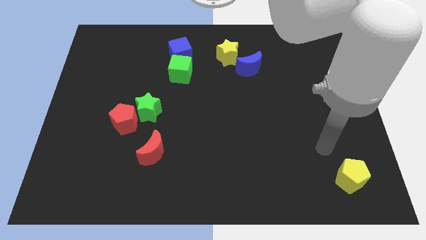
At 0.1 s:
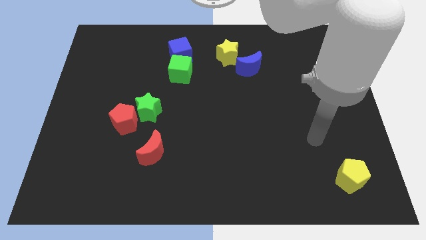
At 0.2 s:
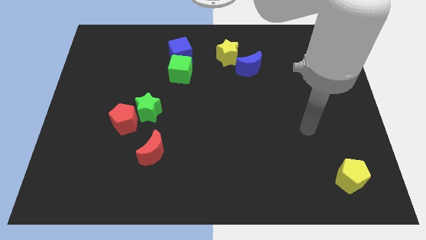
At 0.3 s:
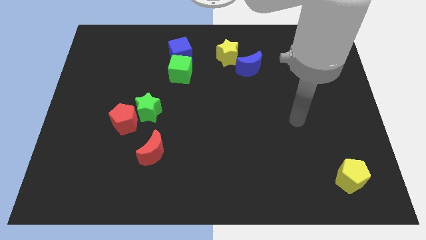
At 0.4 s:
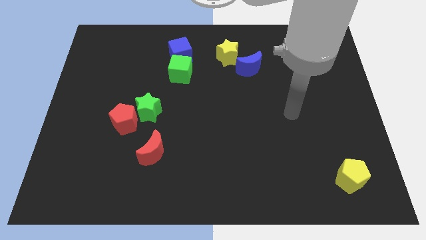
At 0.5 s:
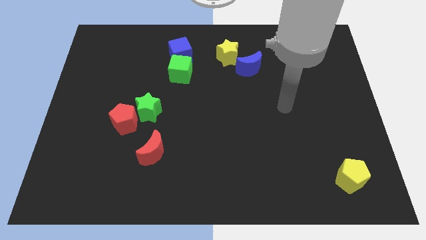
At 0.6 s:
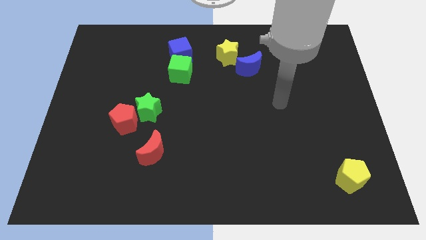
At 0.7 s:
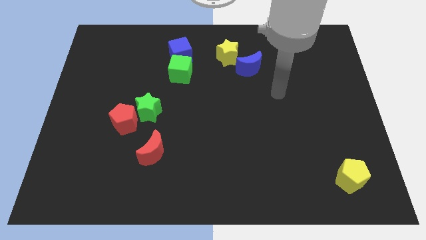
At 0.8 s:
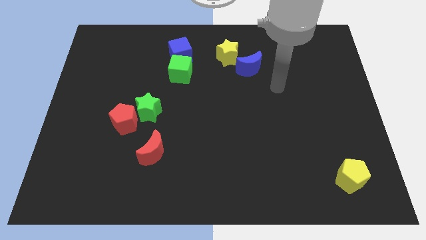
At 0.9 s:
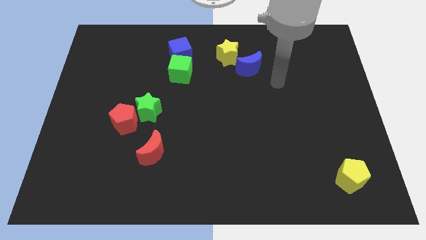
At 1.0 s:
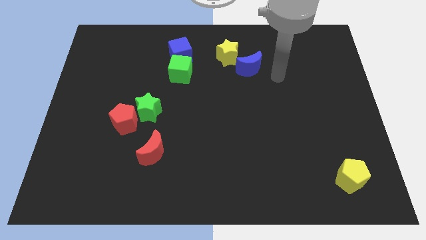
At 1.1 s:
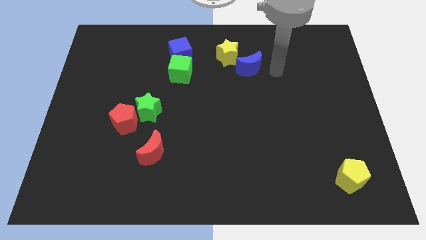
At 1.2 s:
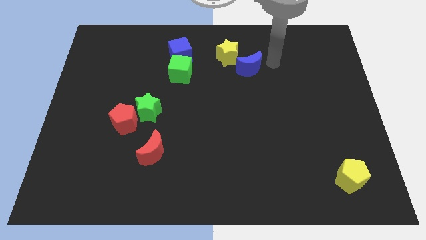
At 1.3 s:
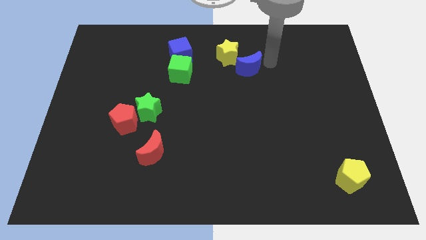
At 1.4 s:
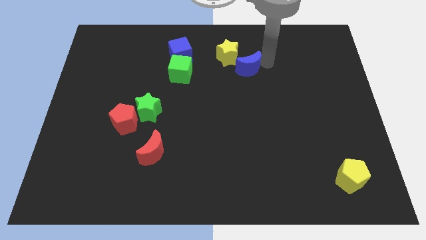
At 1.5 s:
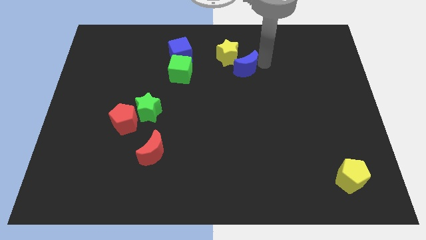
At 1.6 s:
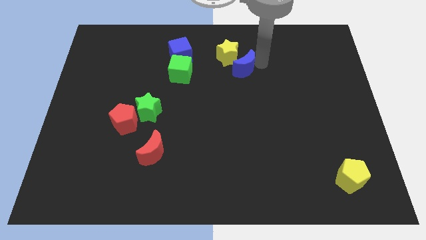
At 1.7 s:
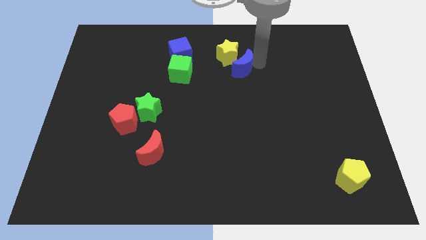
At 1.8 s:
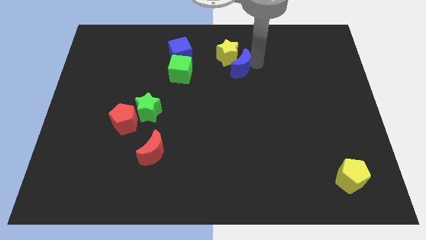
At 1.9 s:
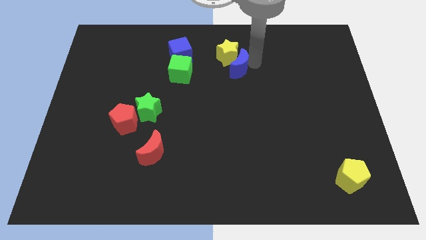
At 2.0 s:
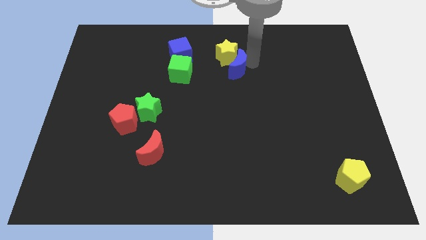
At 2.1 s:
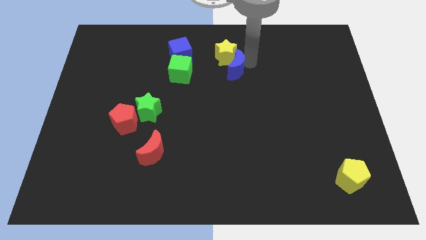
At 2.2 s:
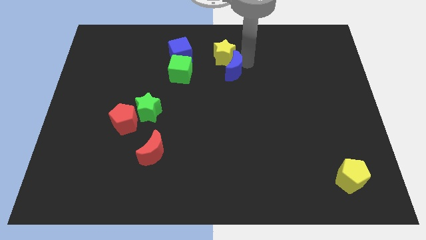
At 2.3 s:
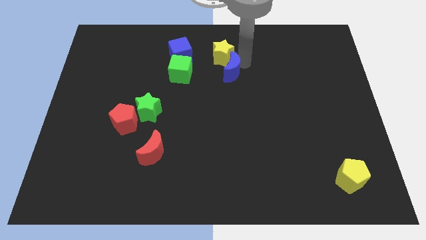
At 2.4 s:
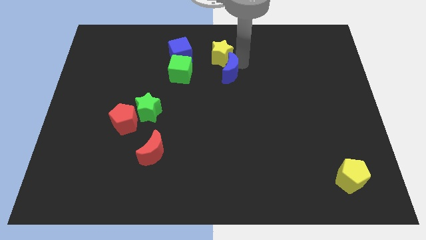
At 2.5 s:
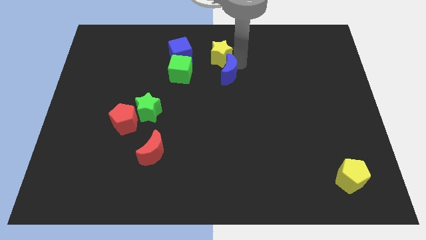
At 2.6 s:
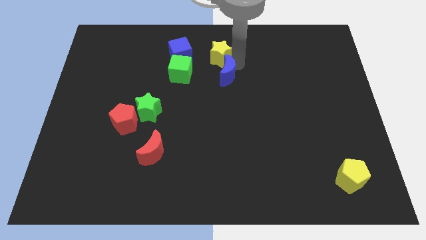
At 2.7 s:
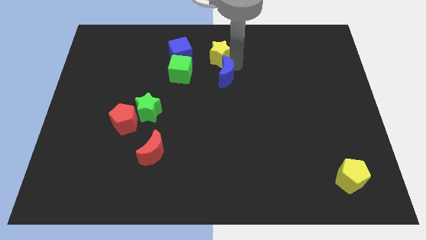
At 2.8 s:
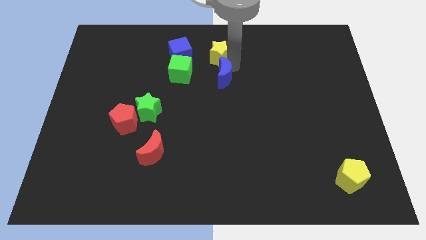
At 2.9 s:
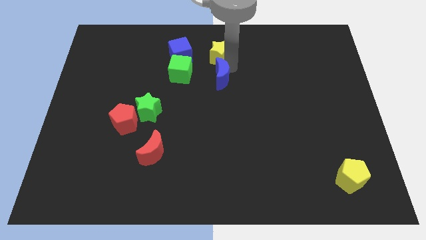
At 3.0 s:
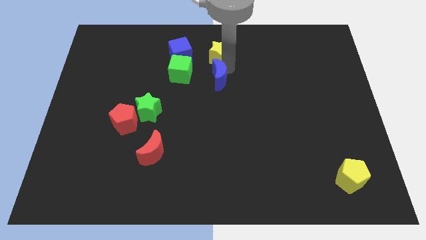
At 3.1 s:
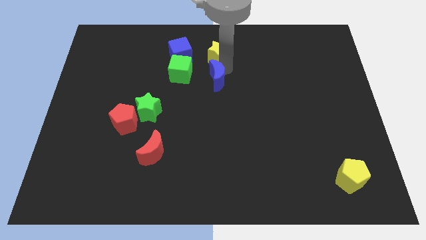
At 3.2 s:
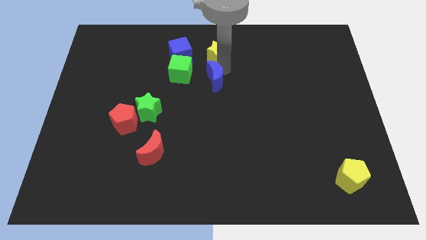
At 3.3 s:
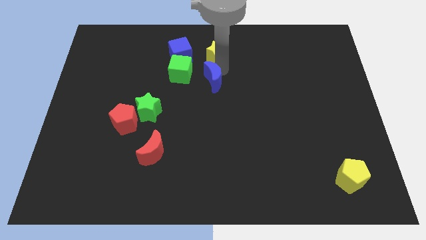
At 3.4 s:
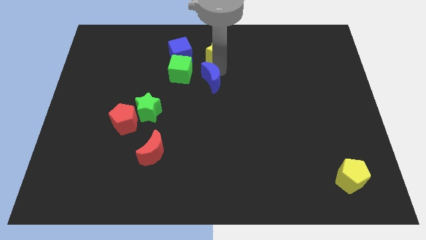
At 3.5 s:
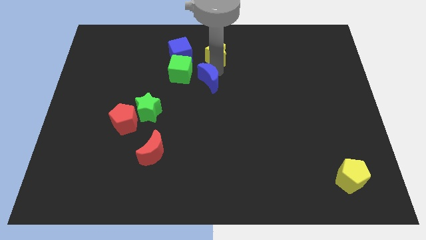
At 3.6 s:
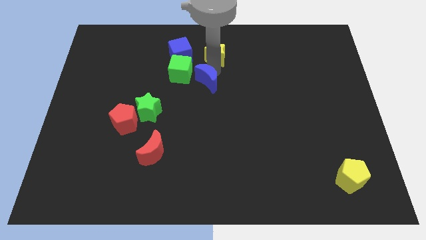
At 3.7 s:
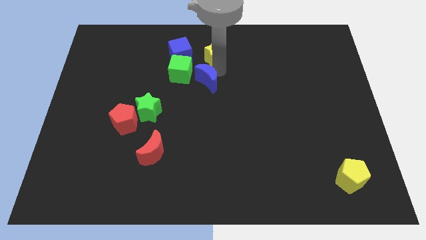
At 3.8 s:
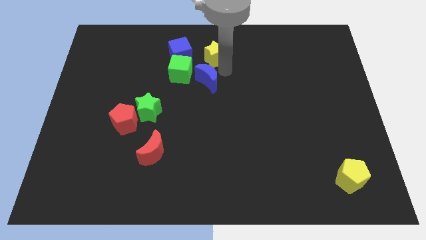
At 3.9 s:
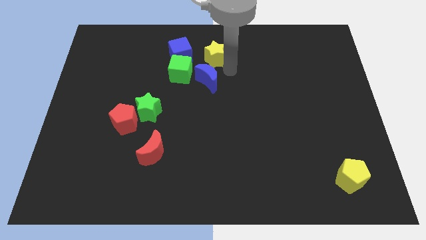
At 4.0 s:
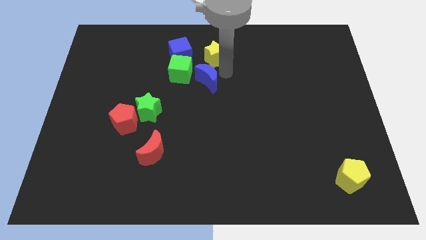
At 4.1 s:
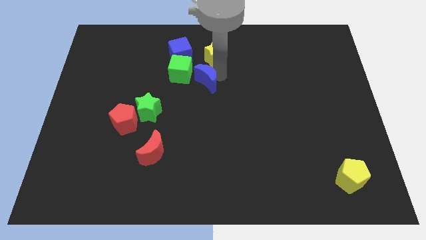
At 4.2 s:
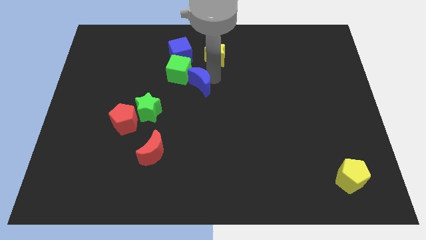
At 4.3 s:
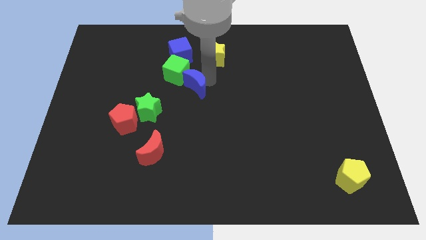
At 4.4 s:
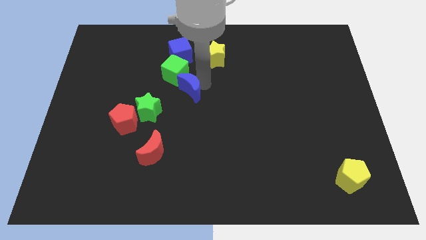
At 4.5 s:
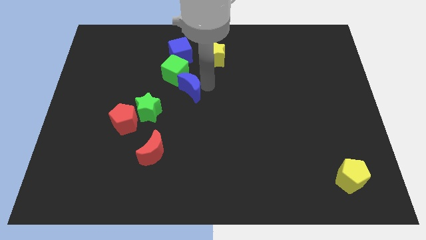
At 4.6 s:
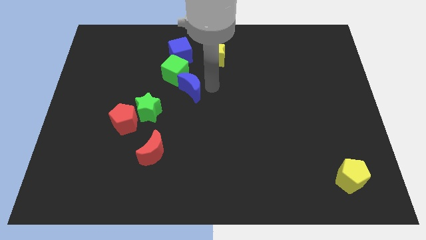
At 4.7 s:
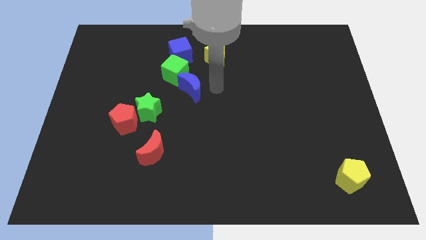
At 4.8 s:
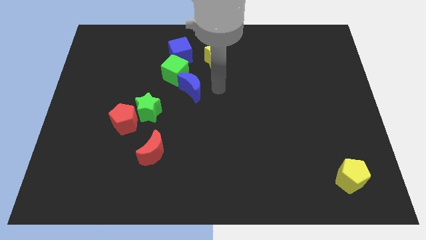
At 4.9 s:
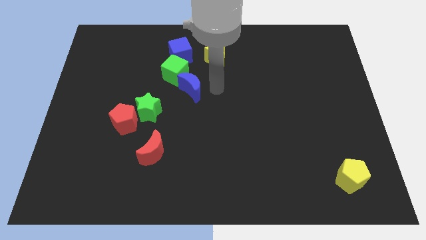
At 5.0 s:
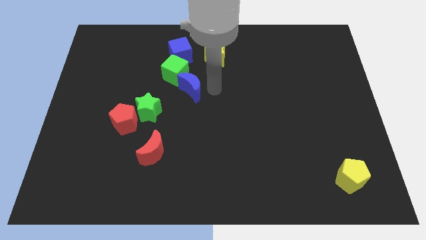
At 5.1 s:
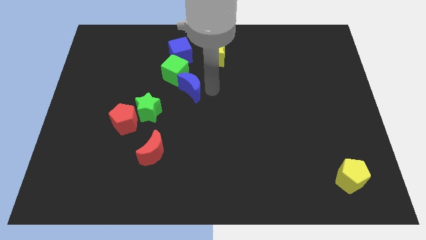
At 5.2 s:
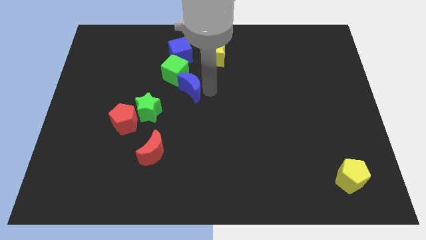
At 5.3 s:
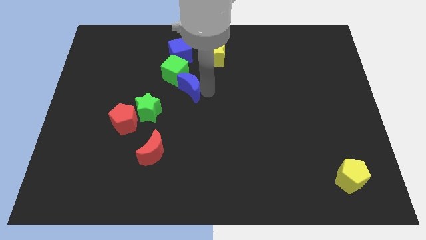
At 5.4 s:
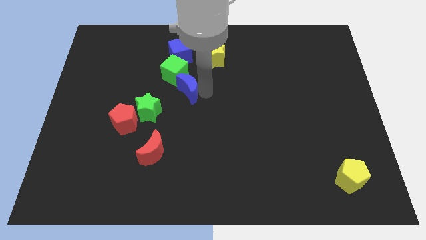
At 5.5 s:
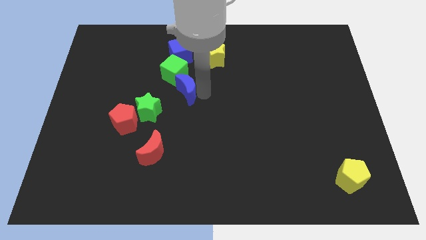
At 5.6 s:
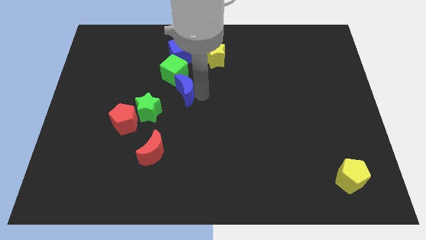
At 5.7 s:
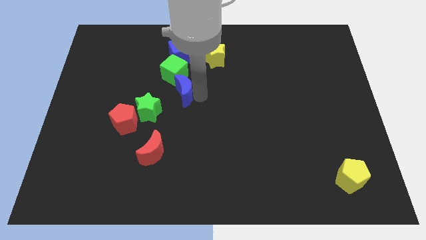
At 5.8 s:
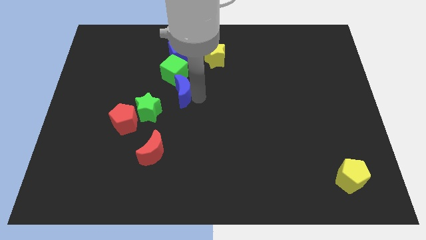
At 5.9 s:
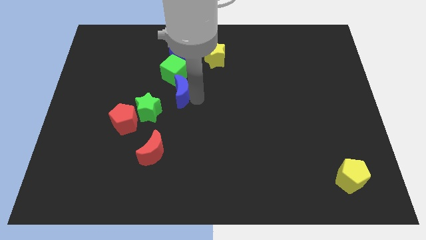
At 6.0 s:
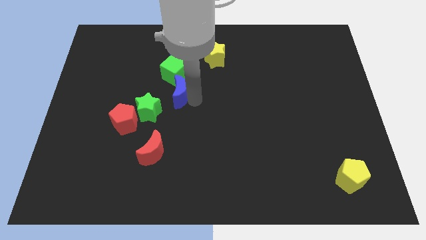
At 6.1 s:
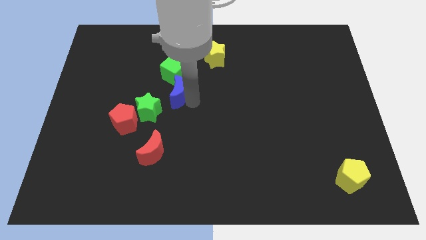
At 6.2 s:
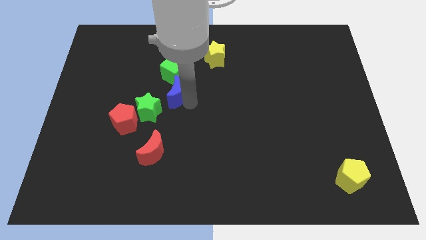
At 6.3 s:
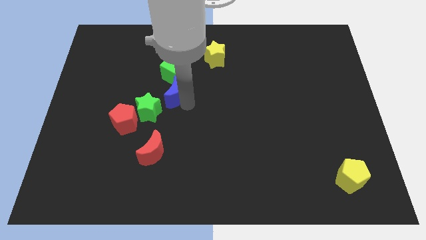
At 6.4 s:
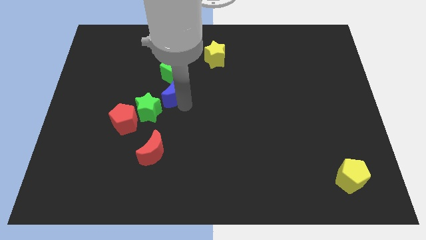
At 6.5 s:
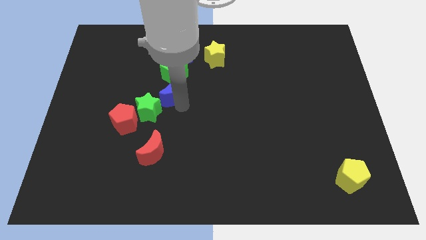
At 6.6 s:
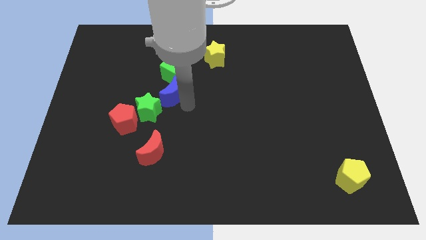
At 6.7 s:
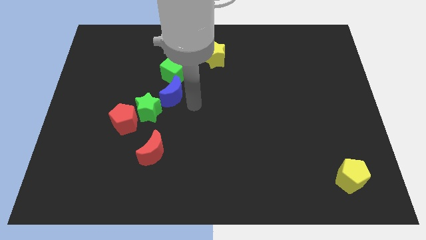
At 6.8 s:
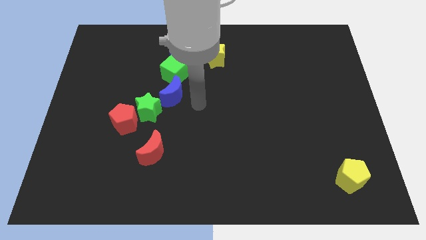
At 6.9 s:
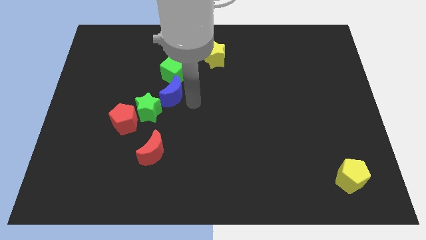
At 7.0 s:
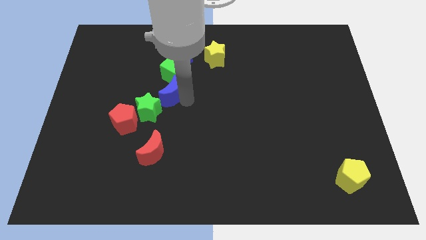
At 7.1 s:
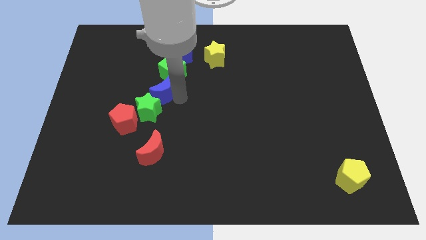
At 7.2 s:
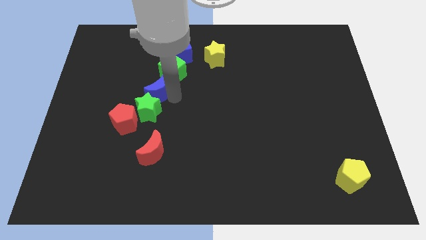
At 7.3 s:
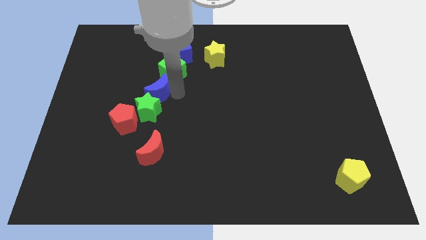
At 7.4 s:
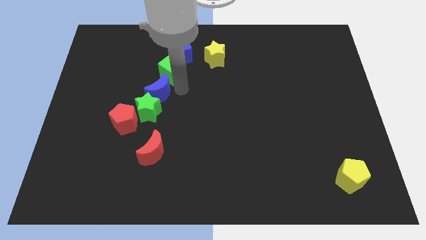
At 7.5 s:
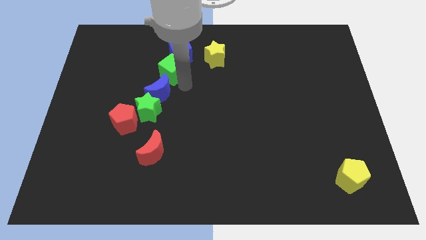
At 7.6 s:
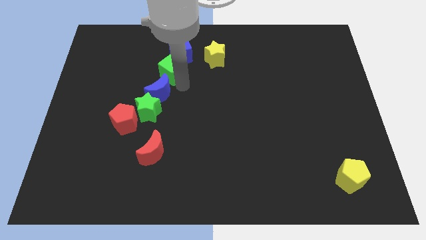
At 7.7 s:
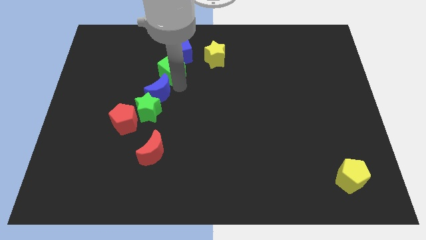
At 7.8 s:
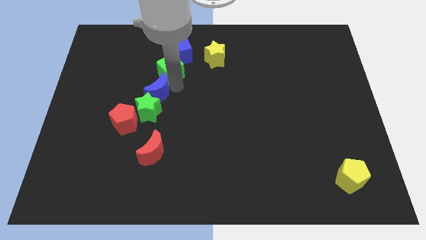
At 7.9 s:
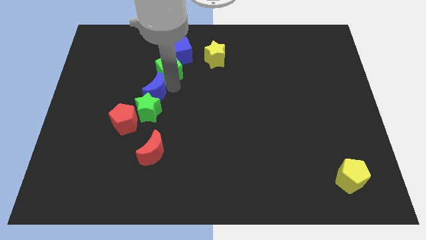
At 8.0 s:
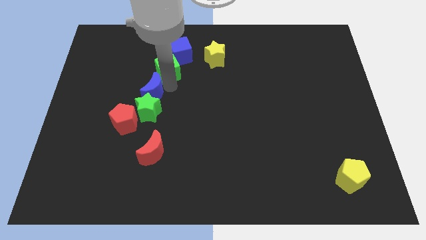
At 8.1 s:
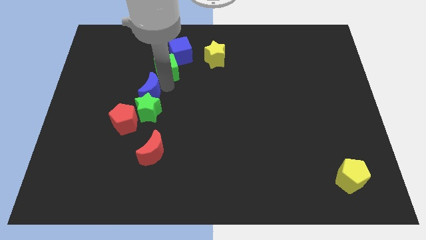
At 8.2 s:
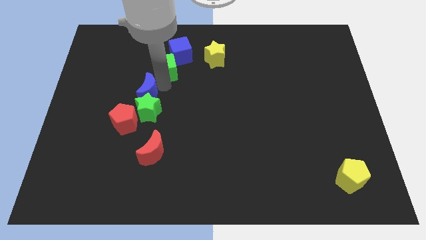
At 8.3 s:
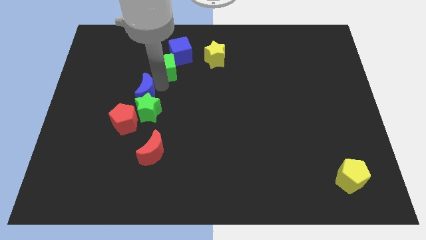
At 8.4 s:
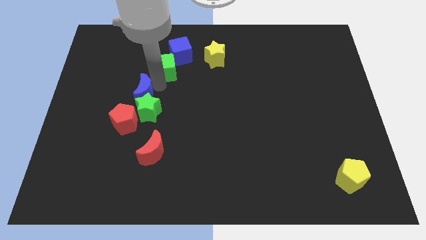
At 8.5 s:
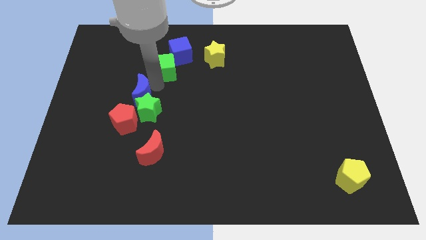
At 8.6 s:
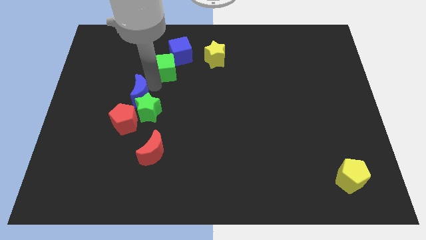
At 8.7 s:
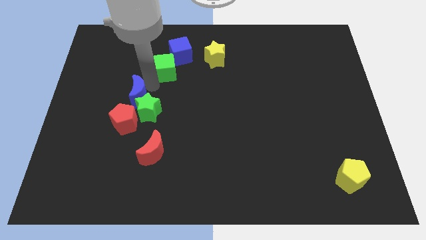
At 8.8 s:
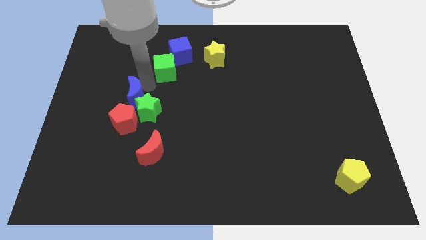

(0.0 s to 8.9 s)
move the blue moon just left of the green star
